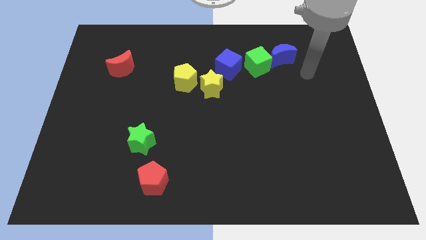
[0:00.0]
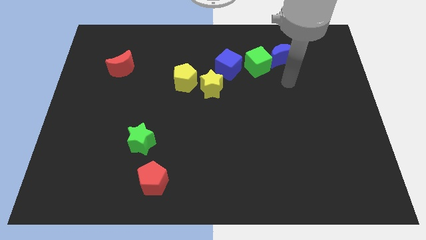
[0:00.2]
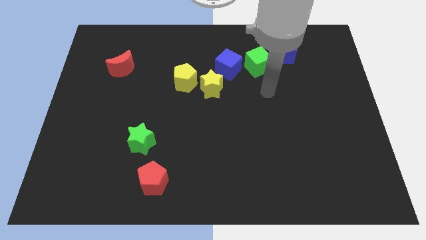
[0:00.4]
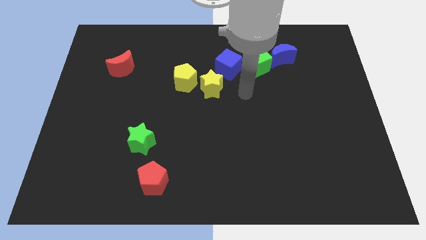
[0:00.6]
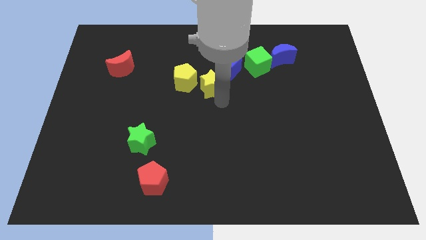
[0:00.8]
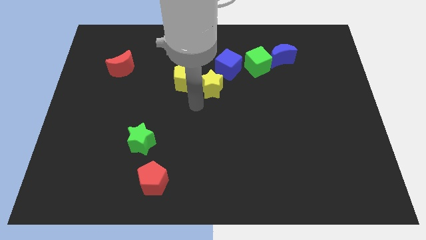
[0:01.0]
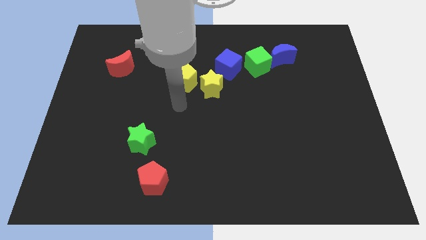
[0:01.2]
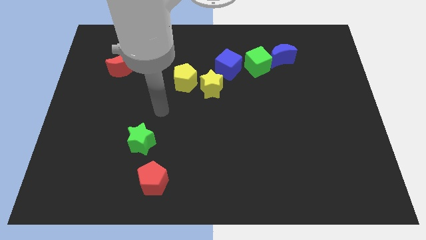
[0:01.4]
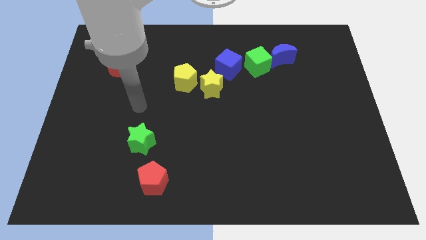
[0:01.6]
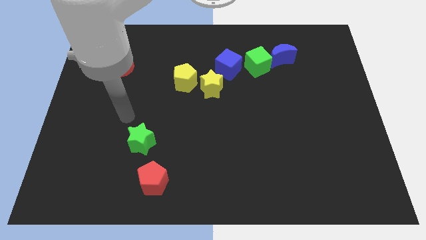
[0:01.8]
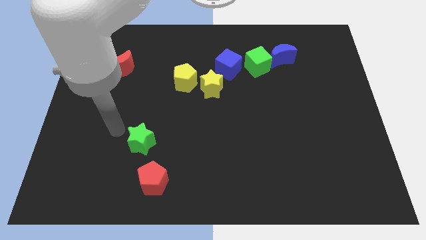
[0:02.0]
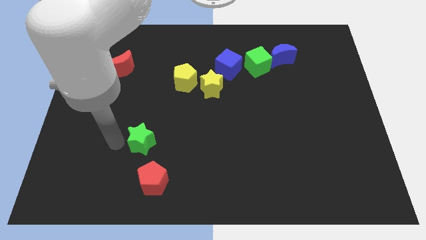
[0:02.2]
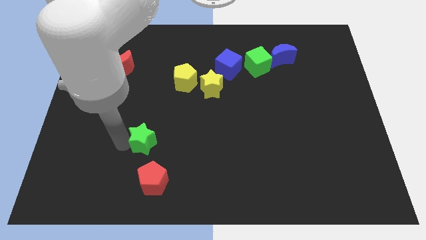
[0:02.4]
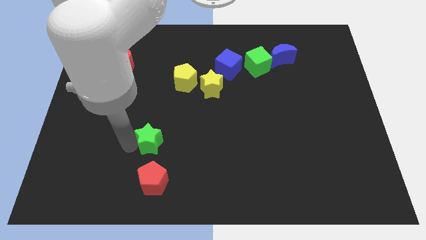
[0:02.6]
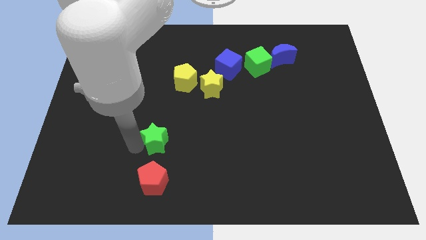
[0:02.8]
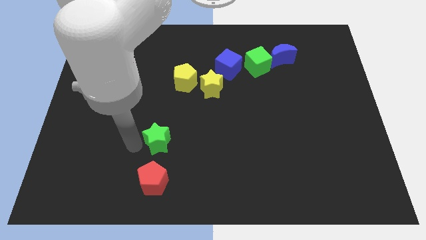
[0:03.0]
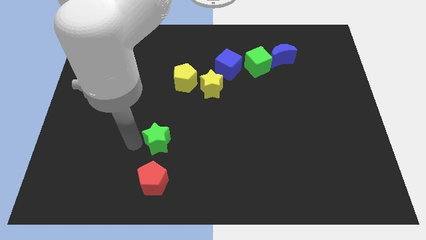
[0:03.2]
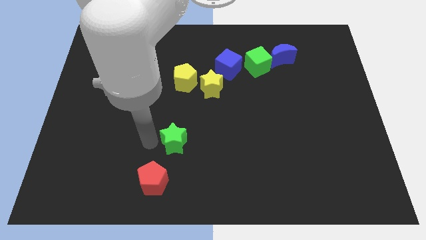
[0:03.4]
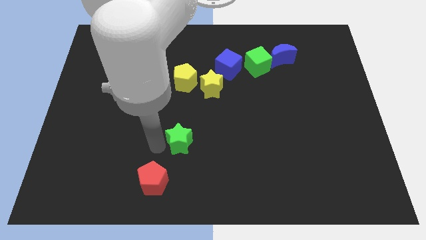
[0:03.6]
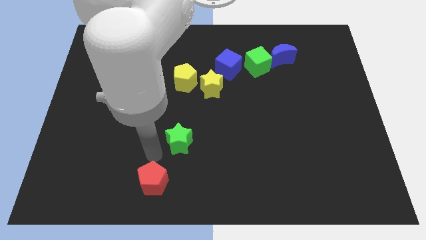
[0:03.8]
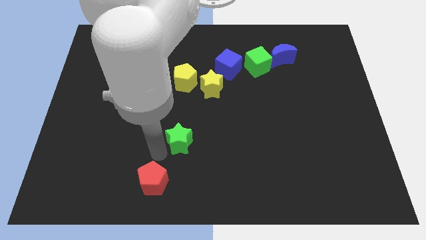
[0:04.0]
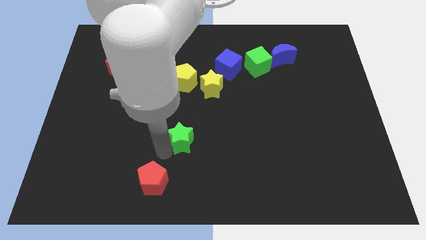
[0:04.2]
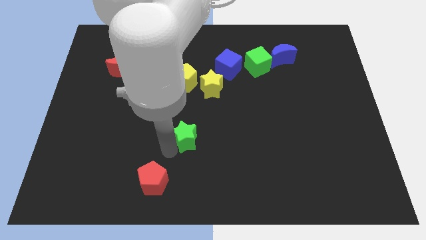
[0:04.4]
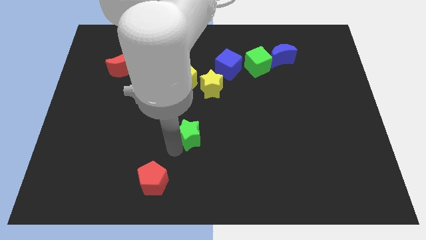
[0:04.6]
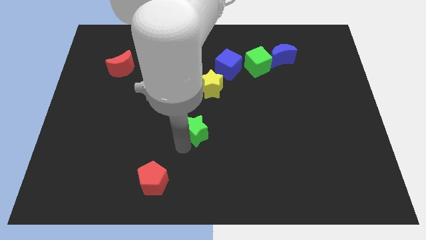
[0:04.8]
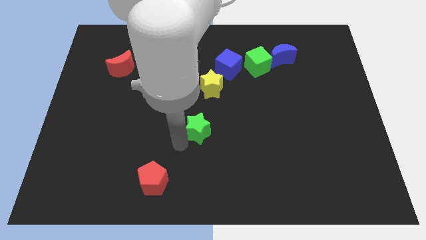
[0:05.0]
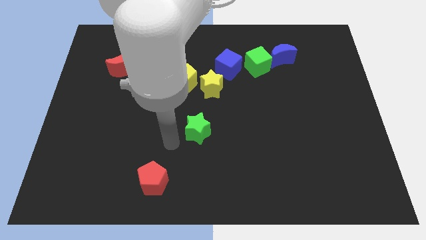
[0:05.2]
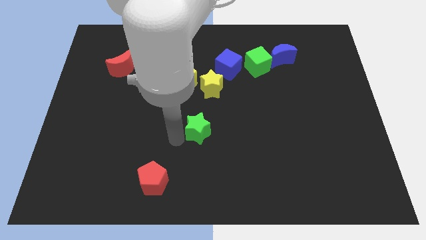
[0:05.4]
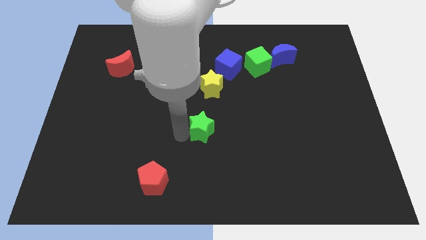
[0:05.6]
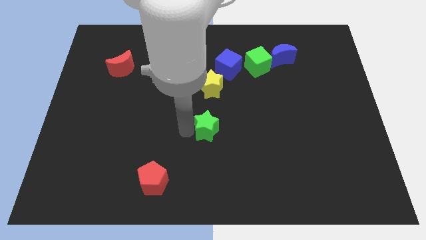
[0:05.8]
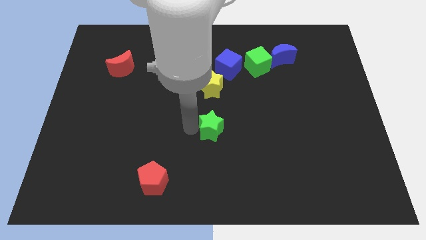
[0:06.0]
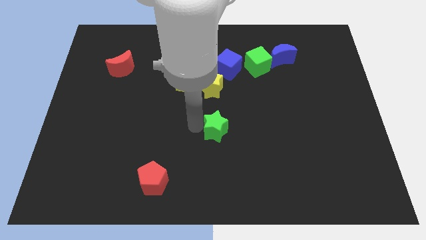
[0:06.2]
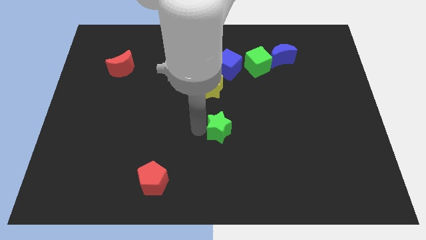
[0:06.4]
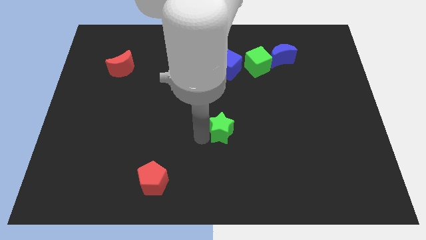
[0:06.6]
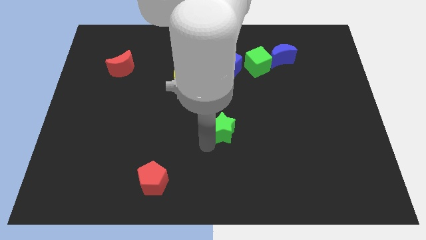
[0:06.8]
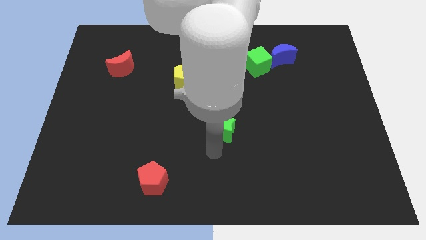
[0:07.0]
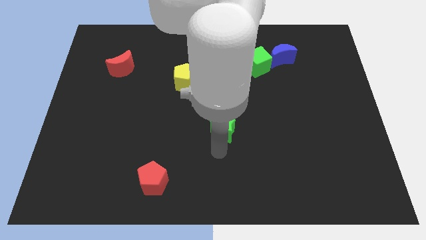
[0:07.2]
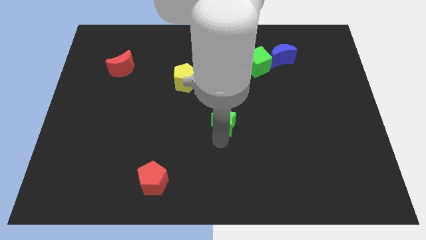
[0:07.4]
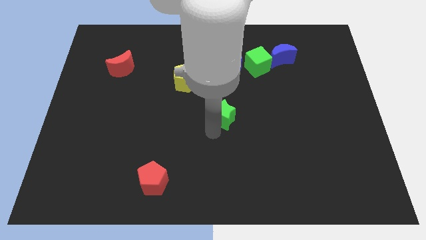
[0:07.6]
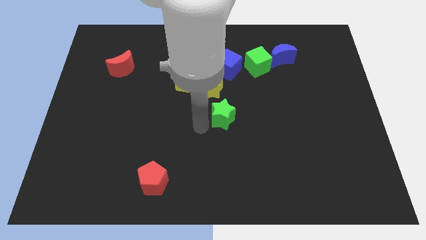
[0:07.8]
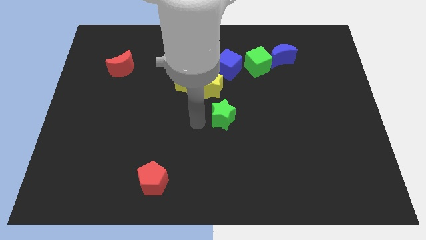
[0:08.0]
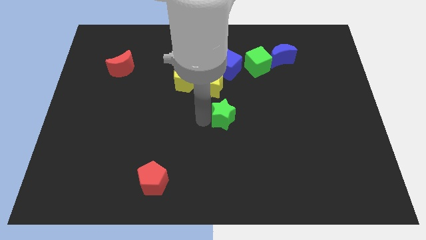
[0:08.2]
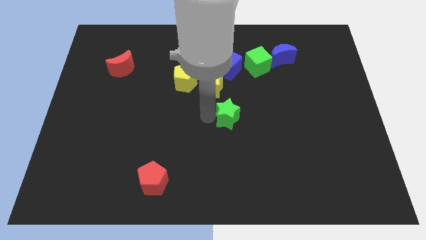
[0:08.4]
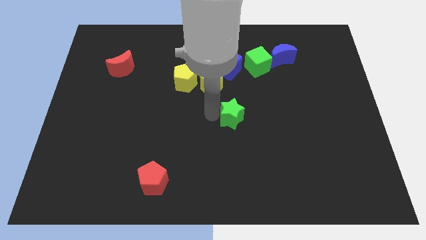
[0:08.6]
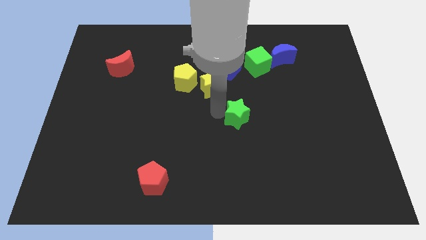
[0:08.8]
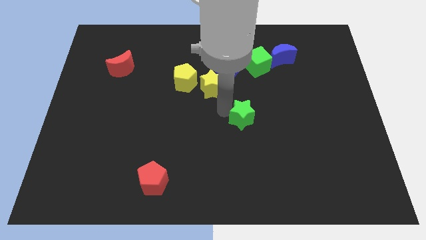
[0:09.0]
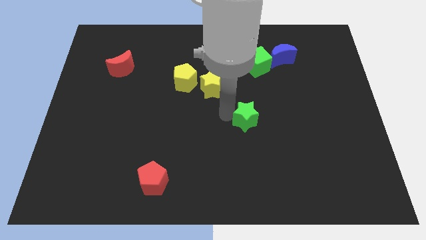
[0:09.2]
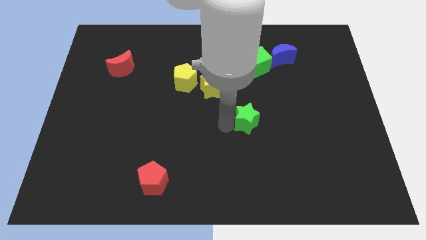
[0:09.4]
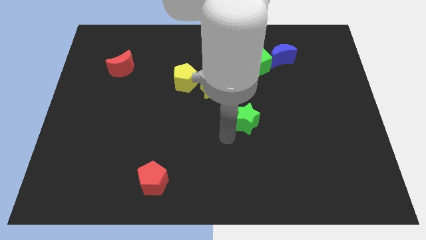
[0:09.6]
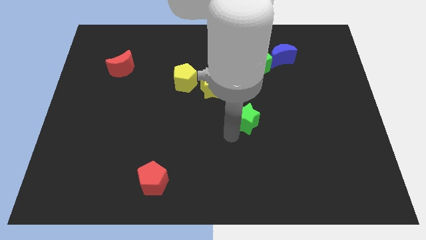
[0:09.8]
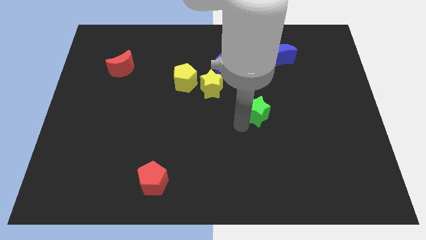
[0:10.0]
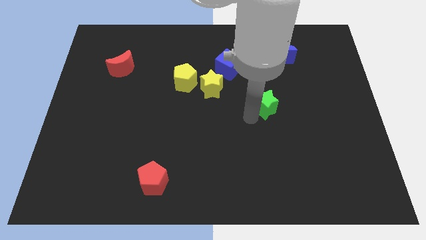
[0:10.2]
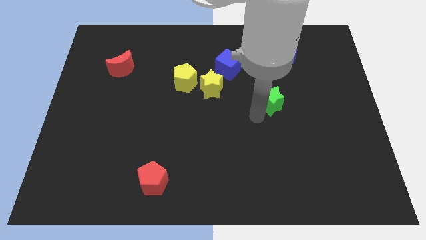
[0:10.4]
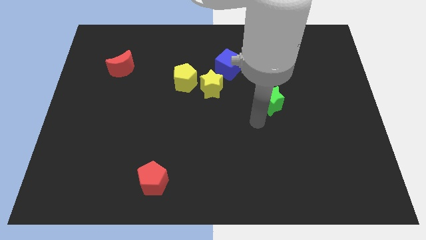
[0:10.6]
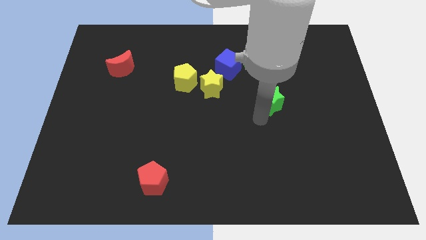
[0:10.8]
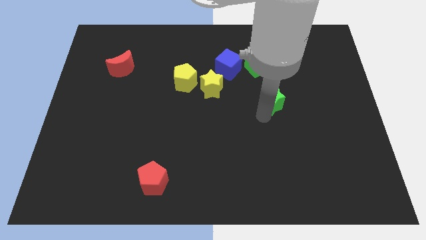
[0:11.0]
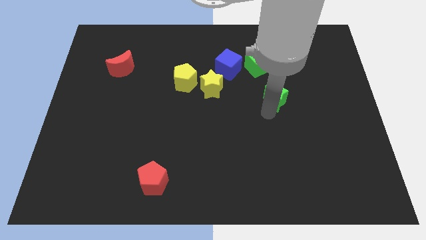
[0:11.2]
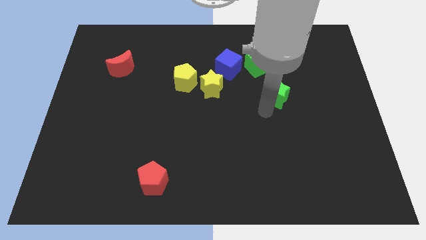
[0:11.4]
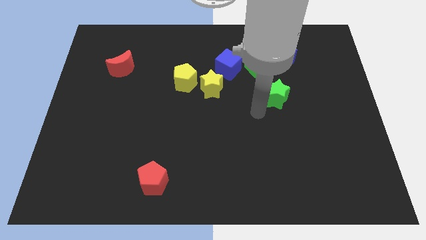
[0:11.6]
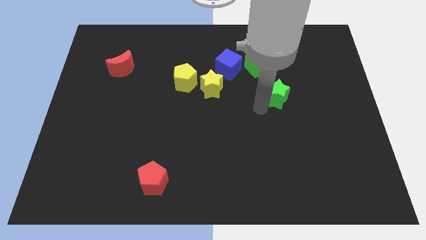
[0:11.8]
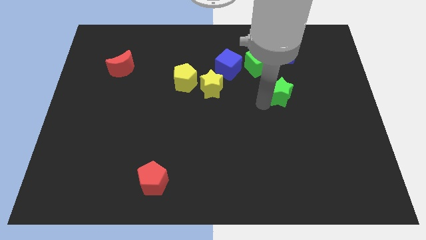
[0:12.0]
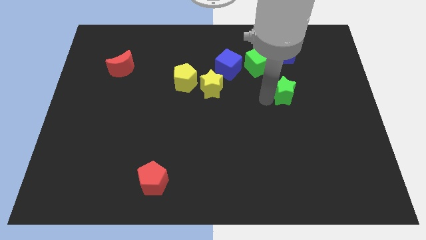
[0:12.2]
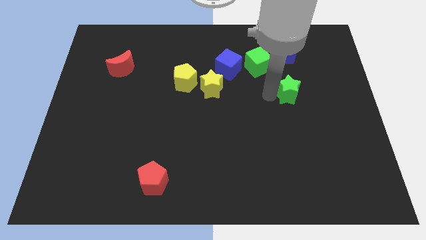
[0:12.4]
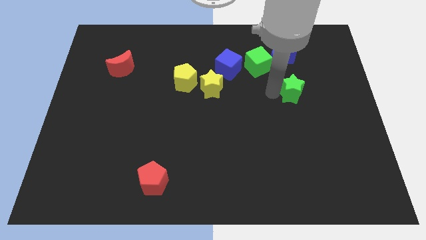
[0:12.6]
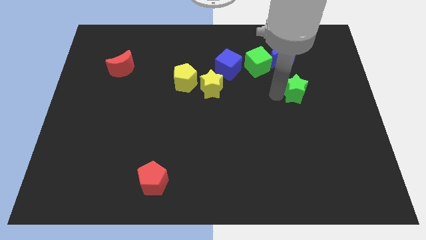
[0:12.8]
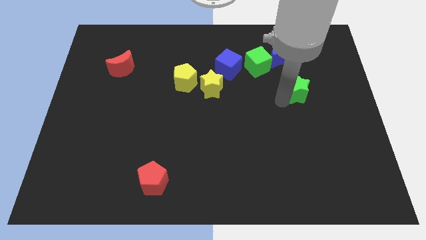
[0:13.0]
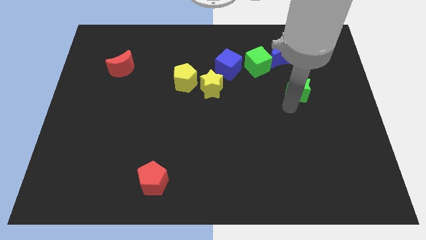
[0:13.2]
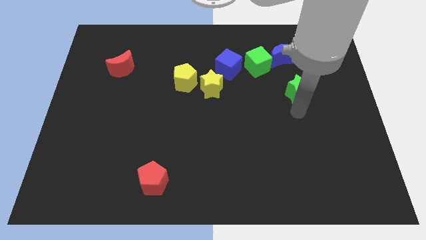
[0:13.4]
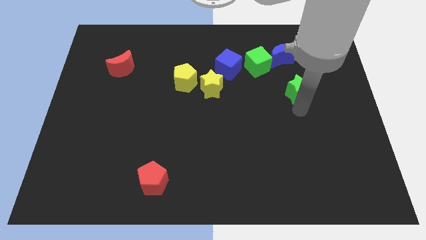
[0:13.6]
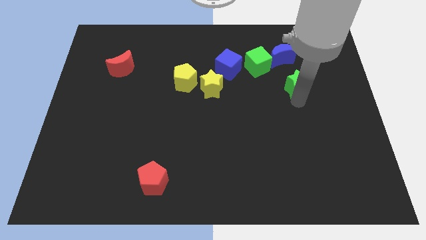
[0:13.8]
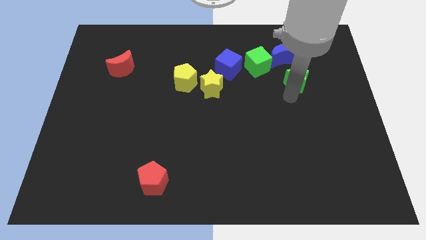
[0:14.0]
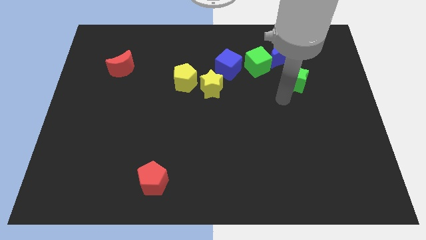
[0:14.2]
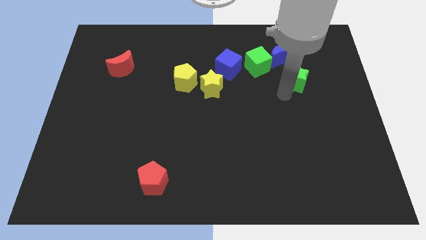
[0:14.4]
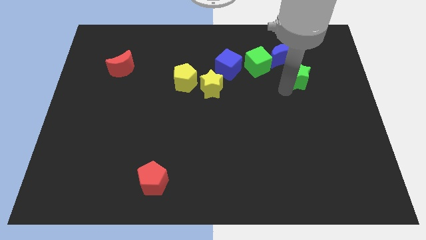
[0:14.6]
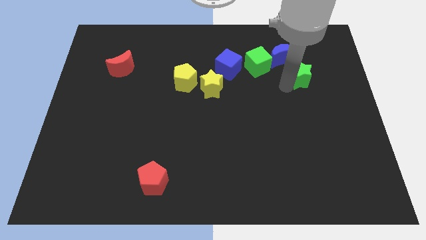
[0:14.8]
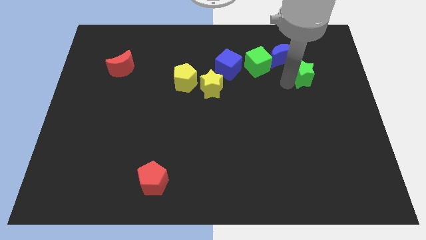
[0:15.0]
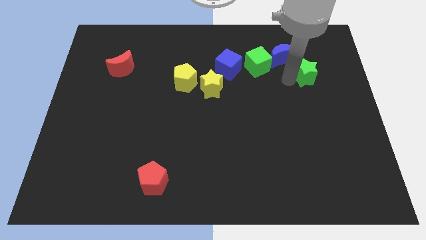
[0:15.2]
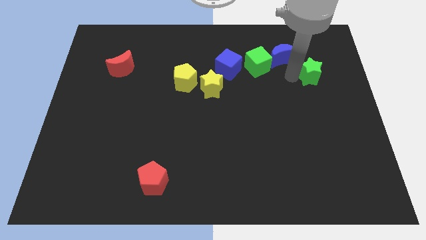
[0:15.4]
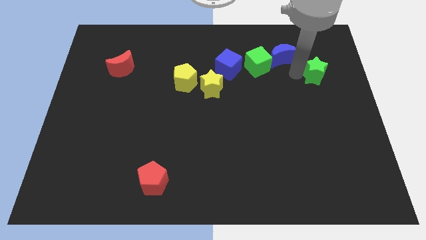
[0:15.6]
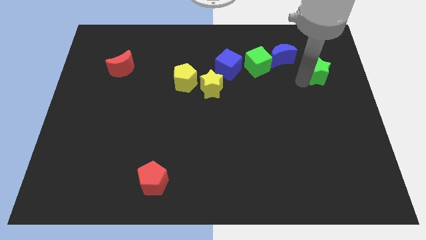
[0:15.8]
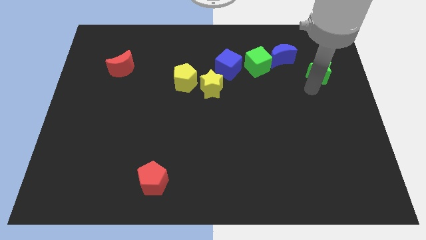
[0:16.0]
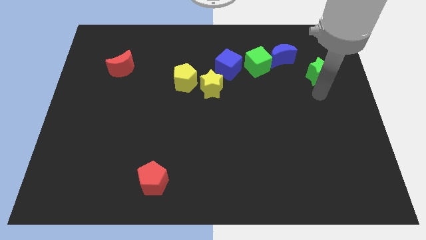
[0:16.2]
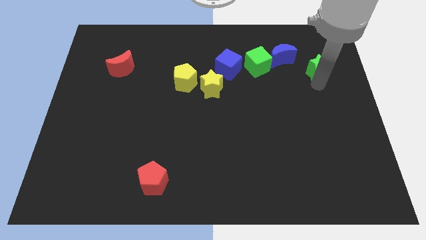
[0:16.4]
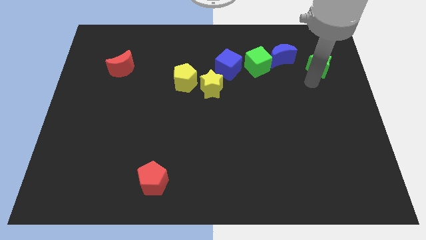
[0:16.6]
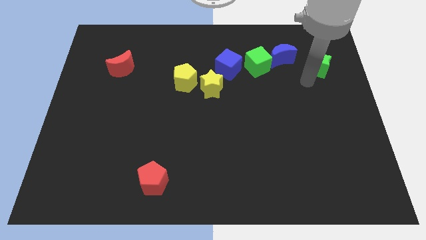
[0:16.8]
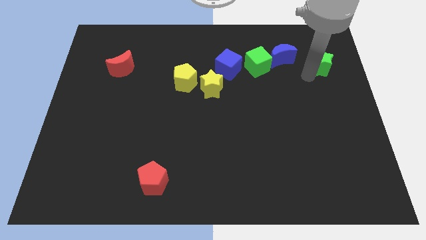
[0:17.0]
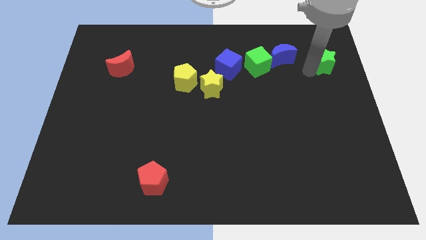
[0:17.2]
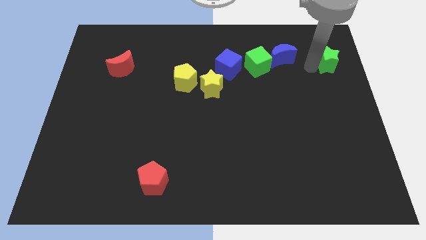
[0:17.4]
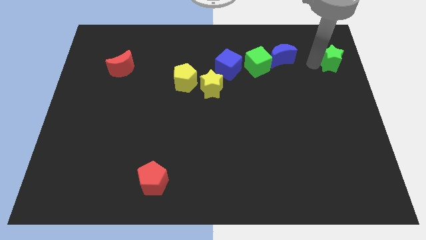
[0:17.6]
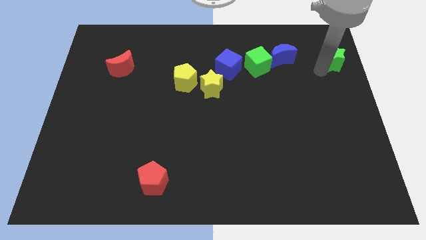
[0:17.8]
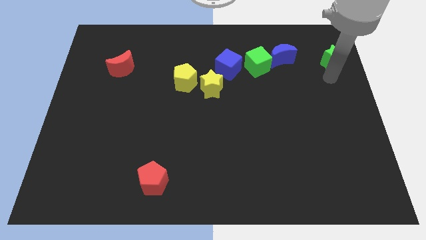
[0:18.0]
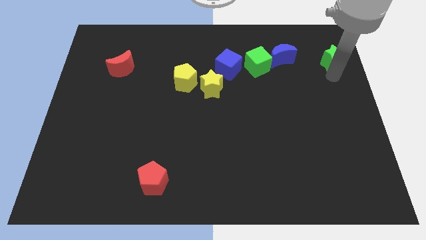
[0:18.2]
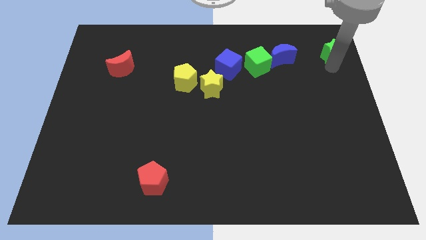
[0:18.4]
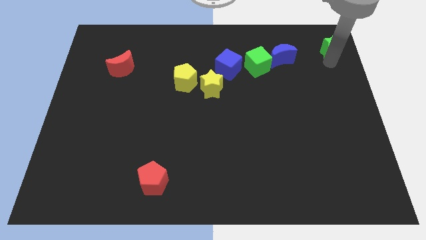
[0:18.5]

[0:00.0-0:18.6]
move the green star to the top right
